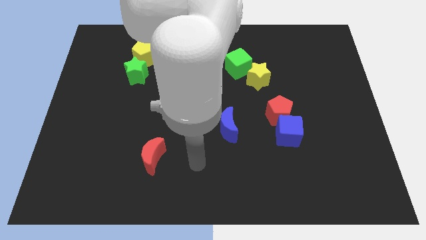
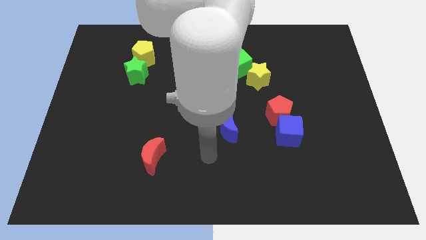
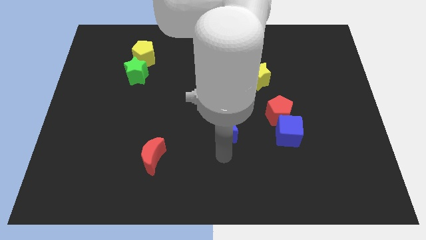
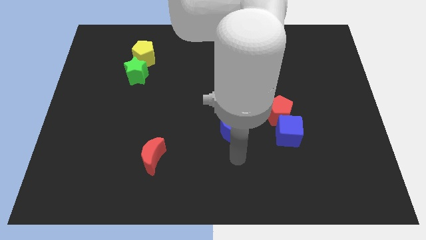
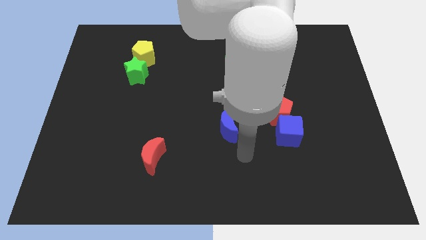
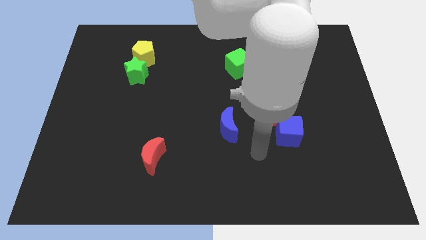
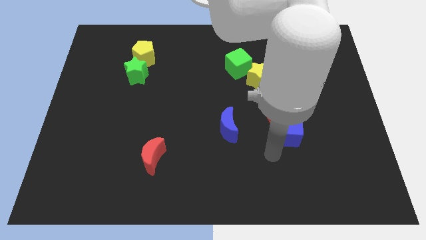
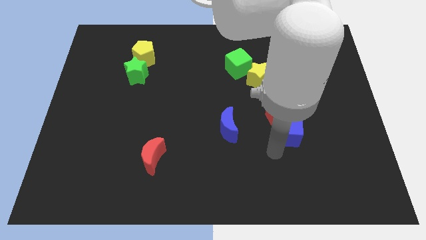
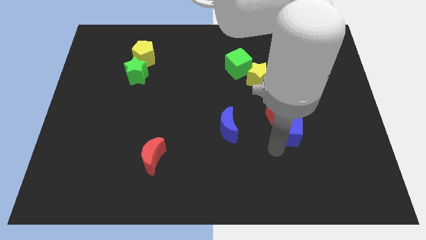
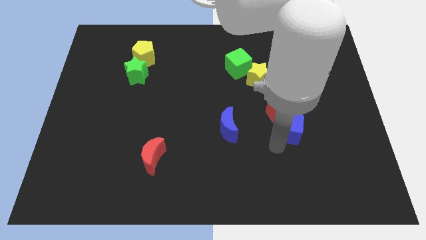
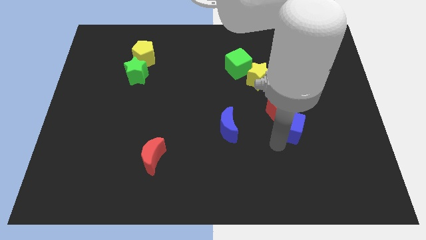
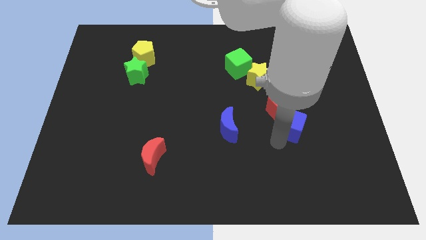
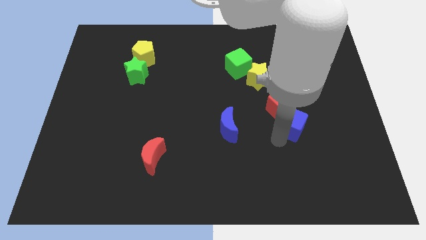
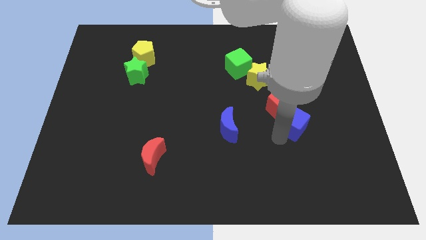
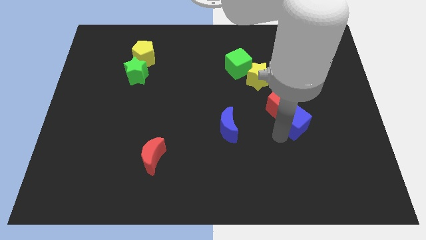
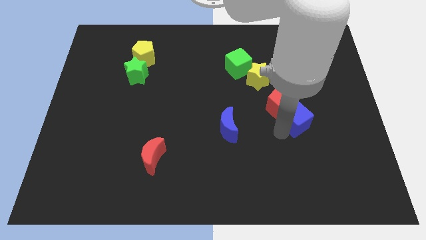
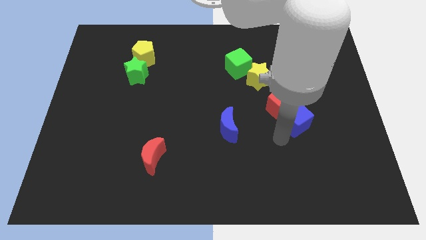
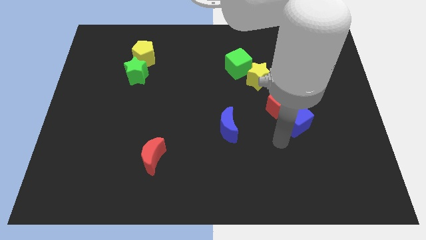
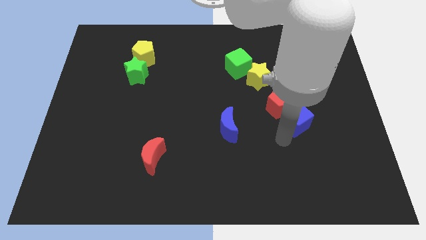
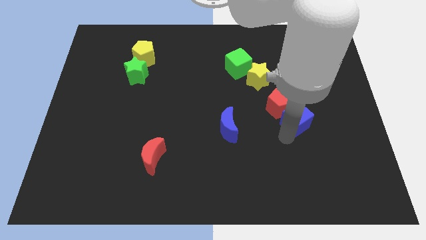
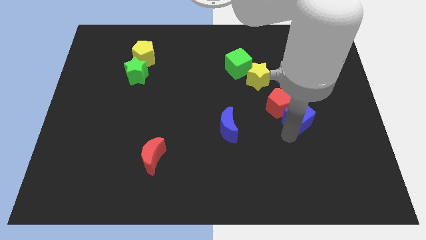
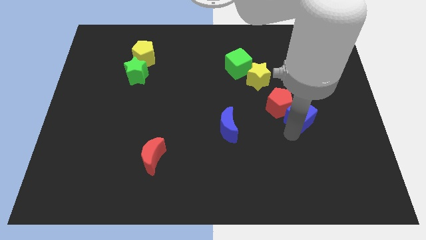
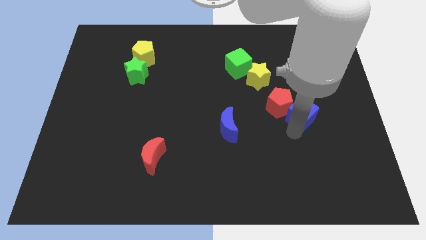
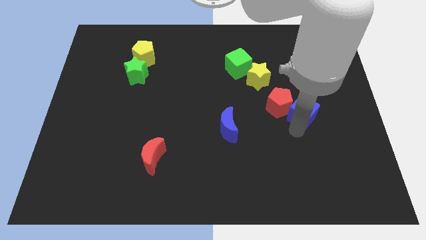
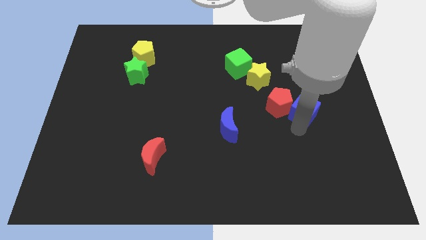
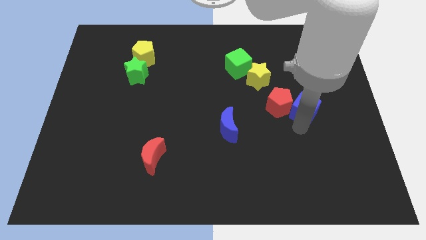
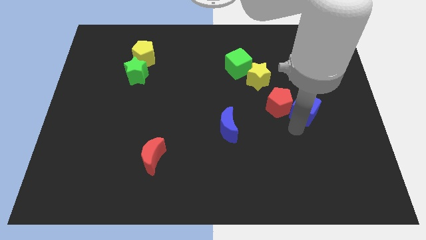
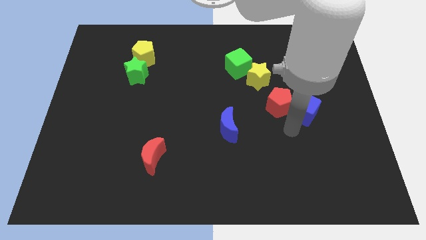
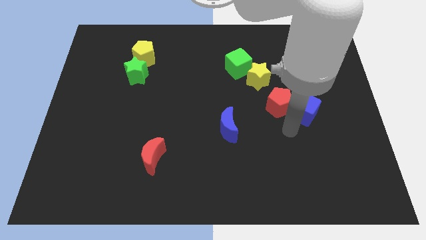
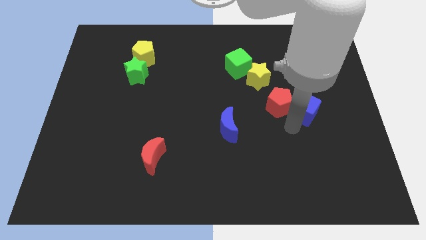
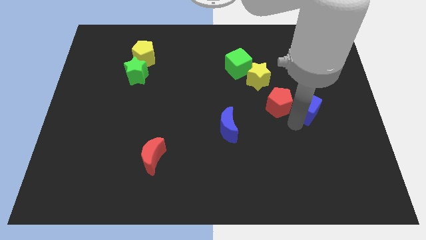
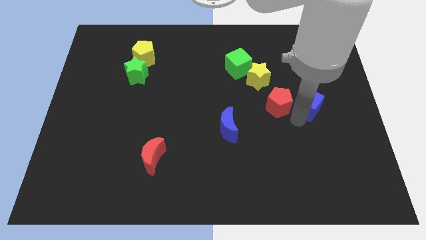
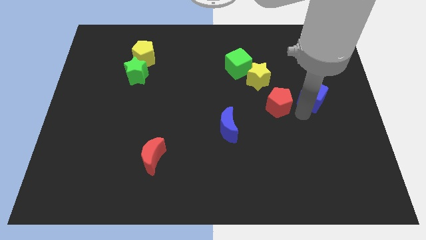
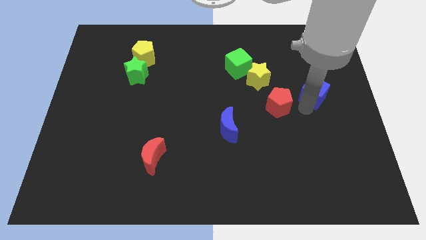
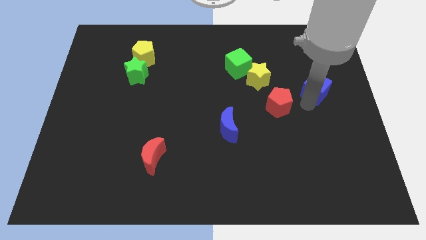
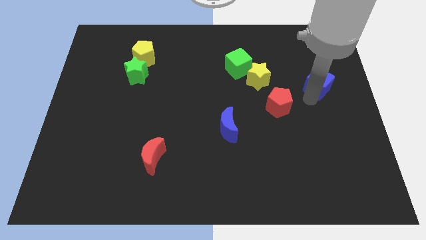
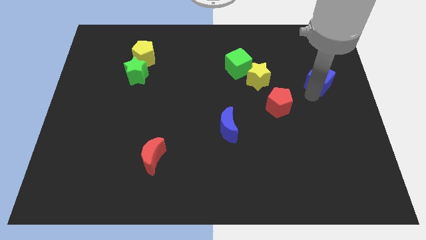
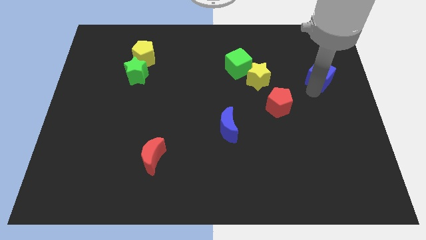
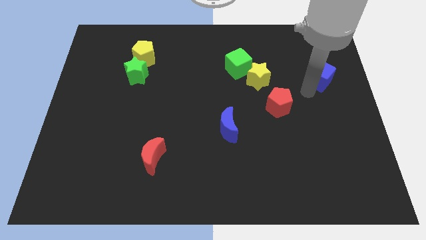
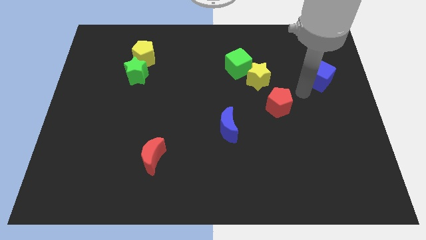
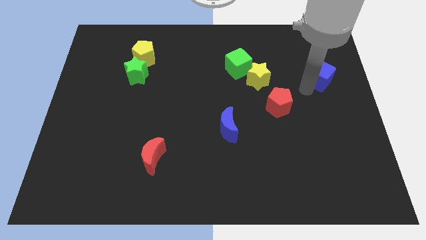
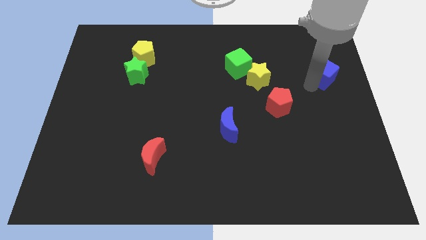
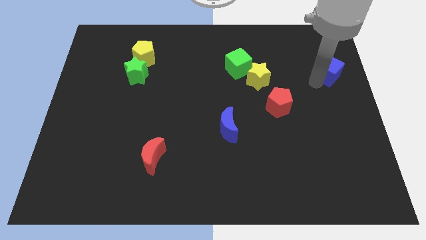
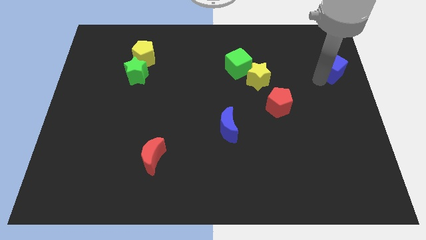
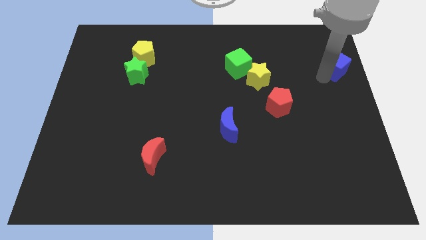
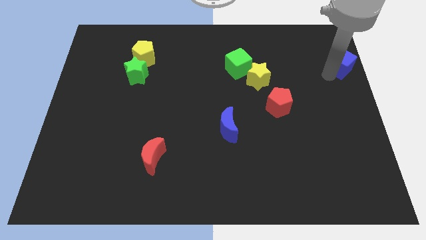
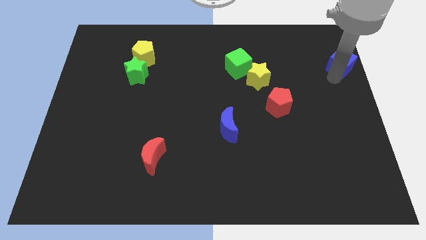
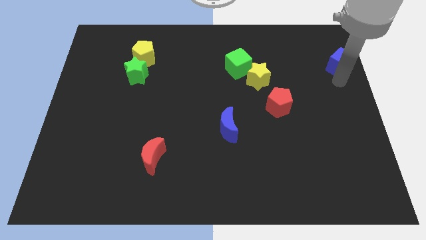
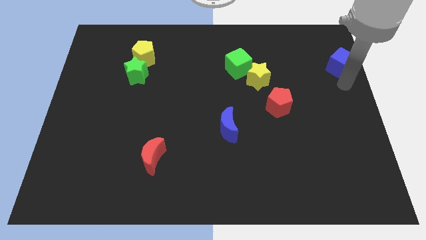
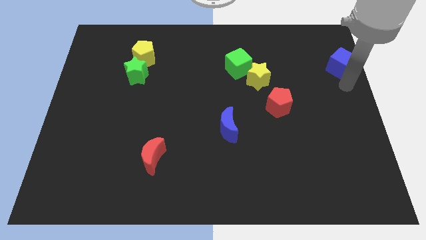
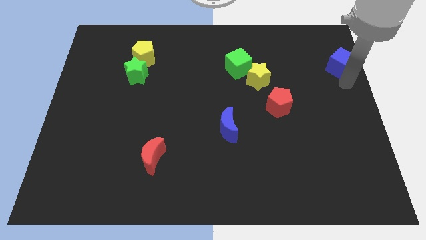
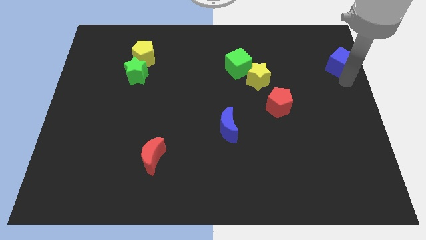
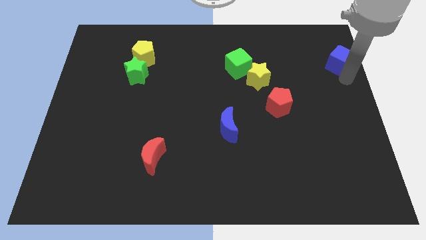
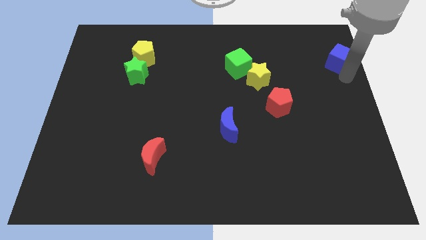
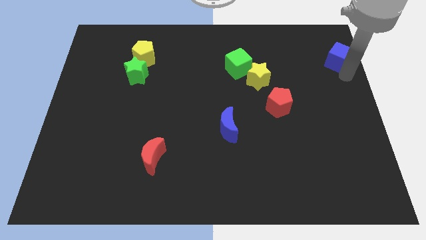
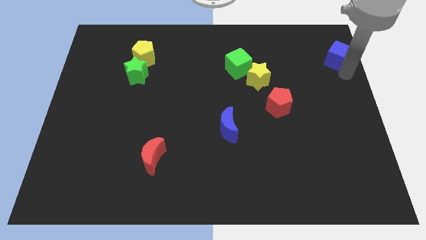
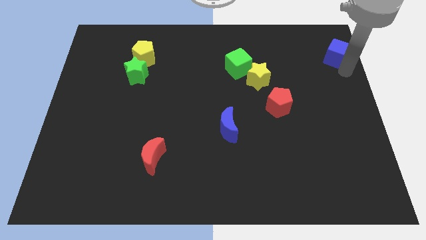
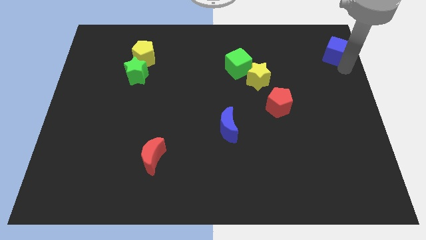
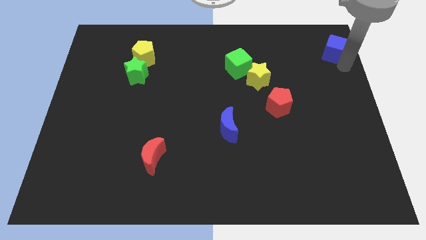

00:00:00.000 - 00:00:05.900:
move the blue cube to the top right of the board
